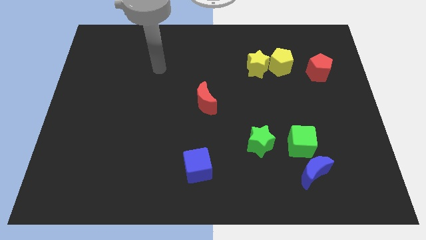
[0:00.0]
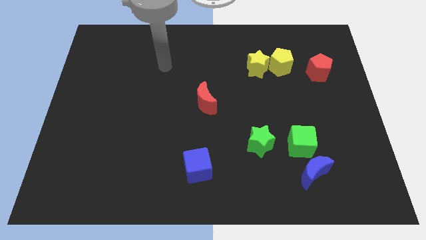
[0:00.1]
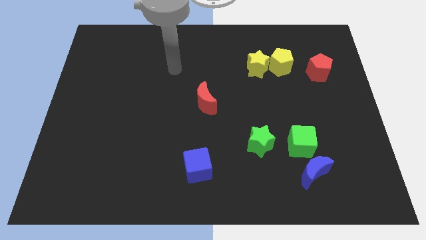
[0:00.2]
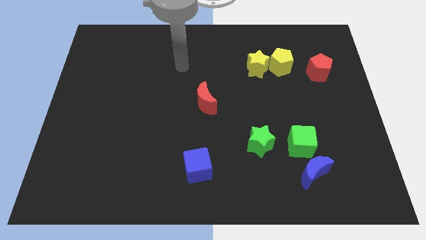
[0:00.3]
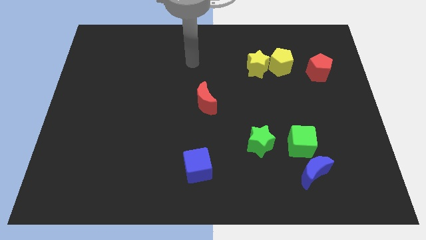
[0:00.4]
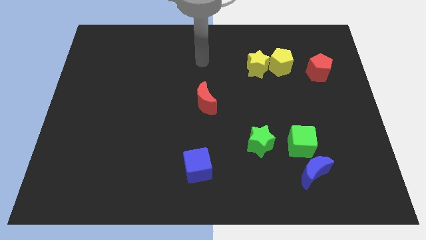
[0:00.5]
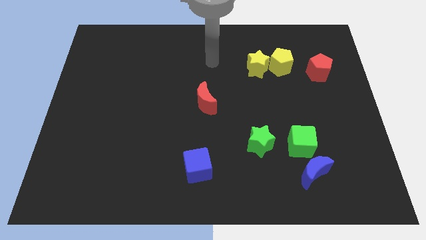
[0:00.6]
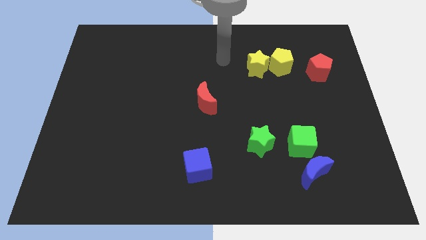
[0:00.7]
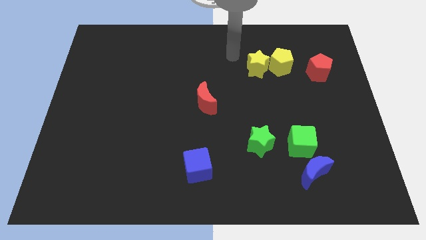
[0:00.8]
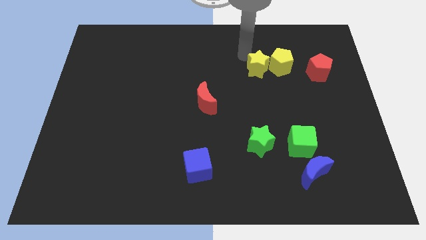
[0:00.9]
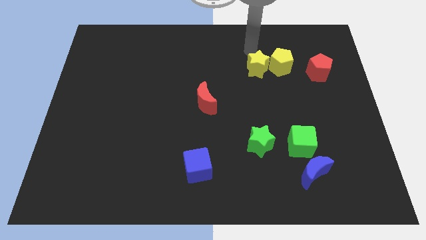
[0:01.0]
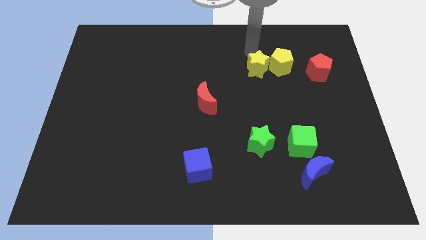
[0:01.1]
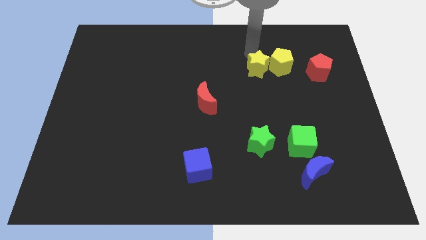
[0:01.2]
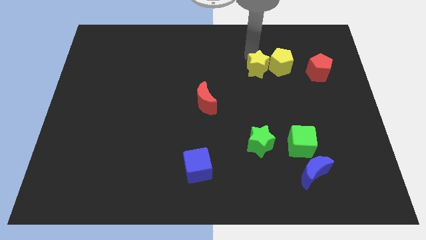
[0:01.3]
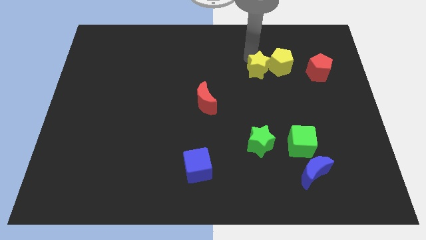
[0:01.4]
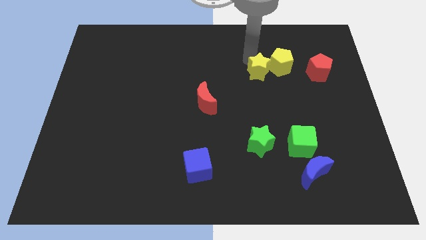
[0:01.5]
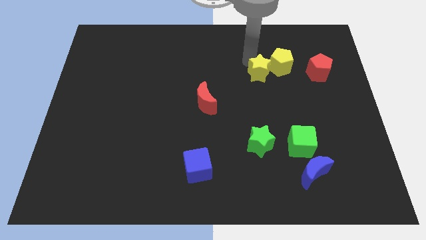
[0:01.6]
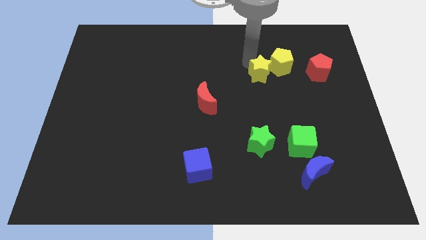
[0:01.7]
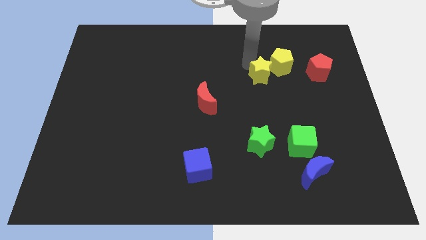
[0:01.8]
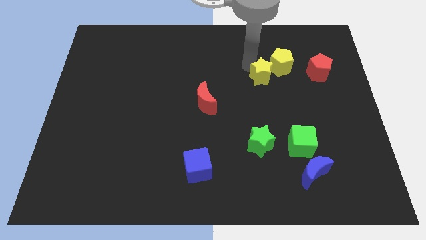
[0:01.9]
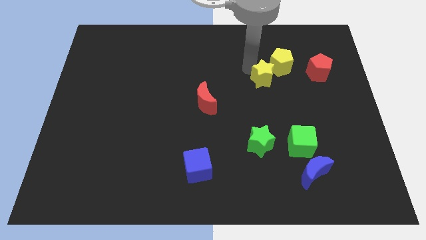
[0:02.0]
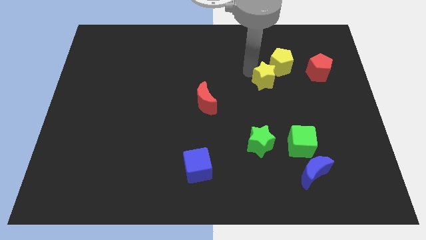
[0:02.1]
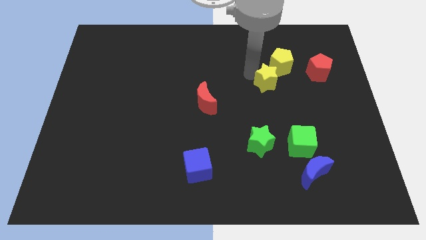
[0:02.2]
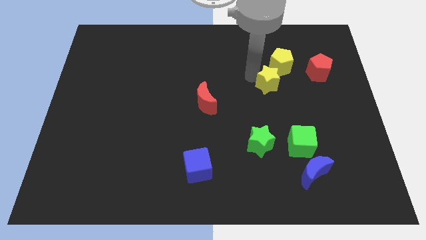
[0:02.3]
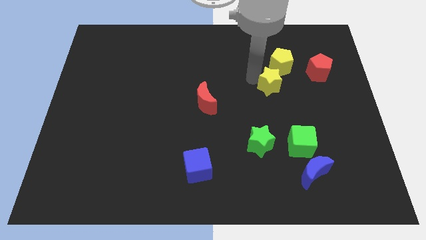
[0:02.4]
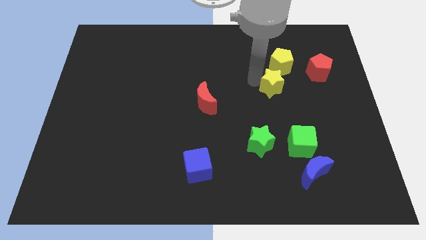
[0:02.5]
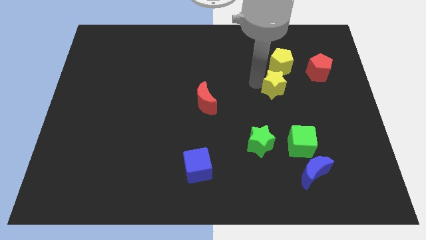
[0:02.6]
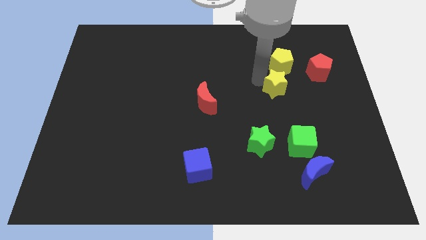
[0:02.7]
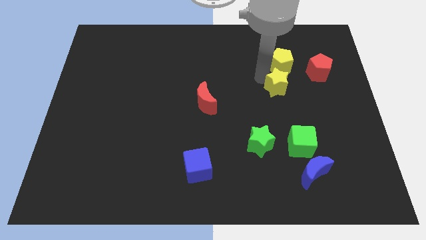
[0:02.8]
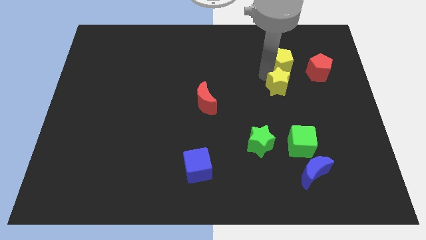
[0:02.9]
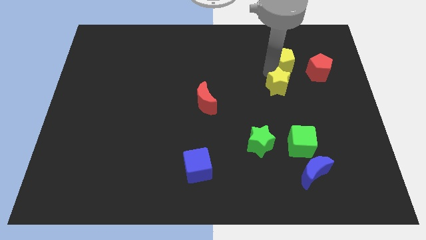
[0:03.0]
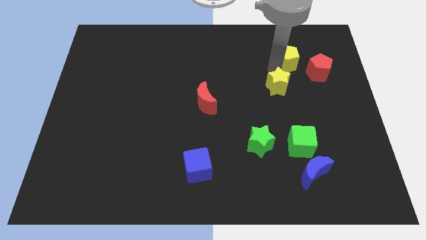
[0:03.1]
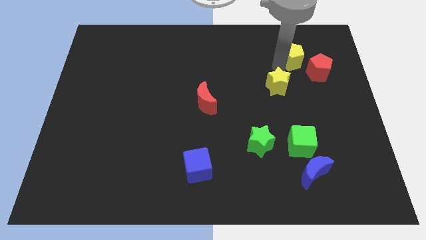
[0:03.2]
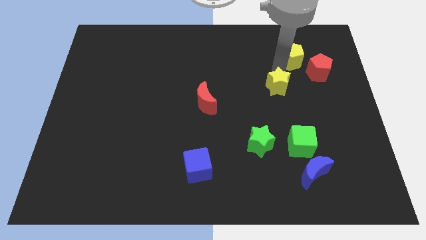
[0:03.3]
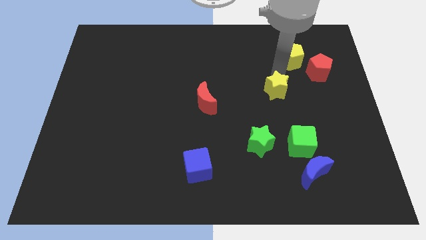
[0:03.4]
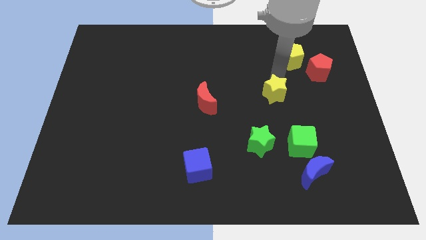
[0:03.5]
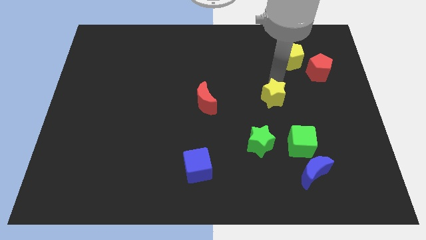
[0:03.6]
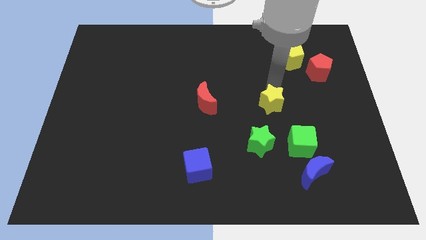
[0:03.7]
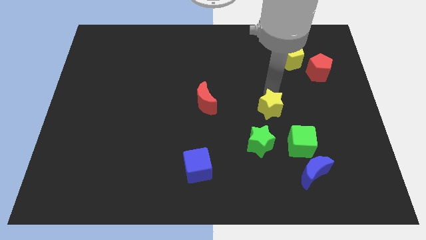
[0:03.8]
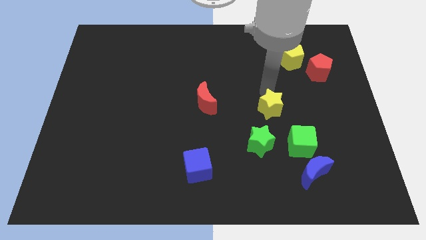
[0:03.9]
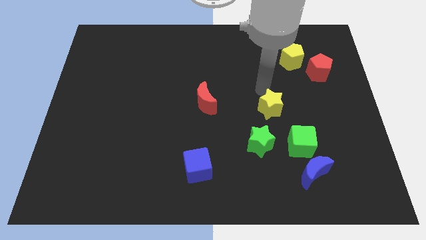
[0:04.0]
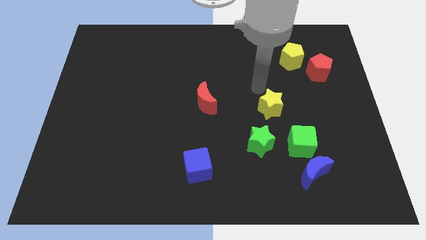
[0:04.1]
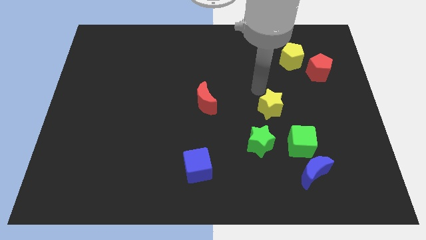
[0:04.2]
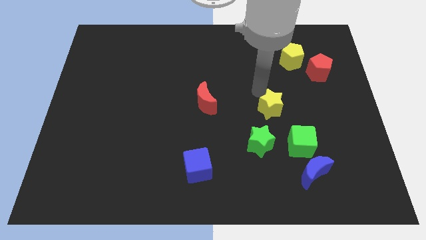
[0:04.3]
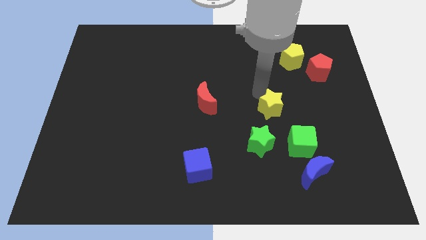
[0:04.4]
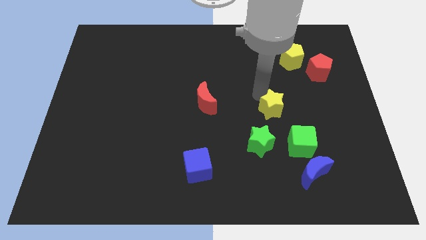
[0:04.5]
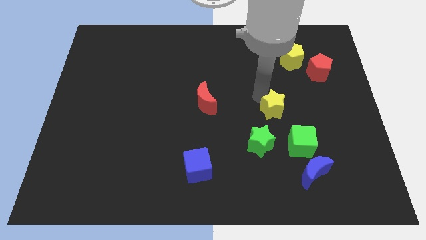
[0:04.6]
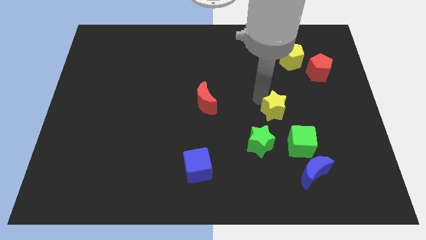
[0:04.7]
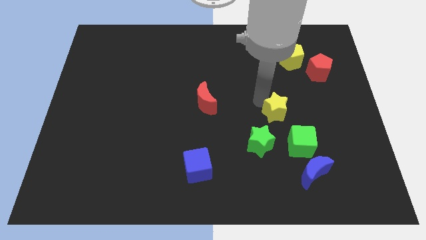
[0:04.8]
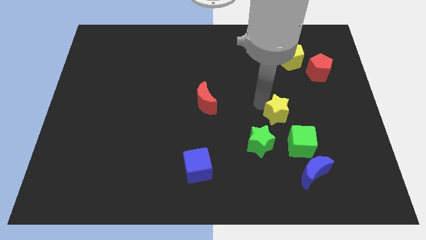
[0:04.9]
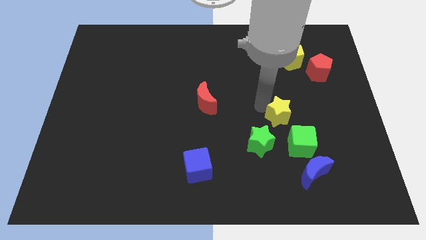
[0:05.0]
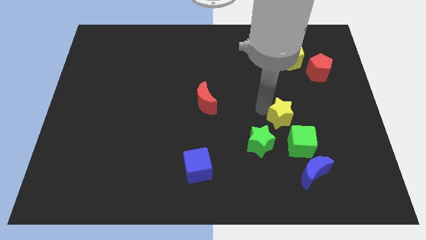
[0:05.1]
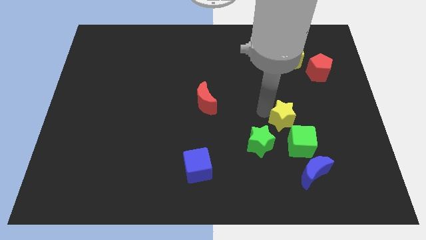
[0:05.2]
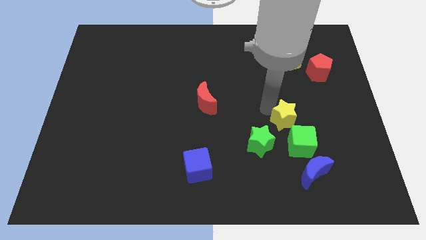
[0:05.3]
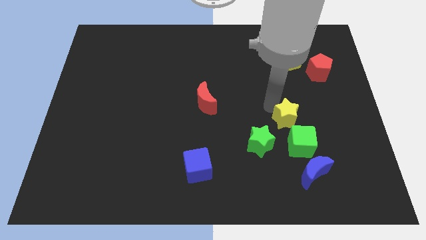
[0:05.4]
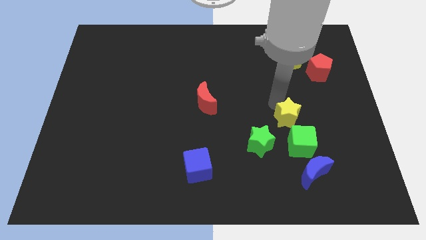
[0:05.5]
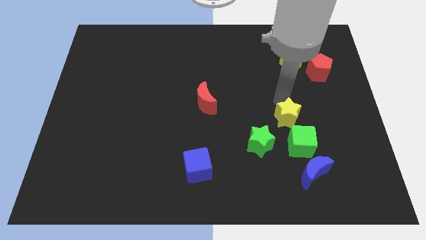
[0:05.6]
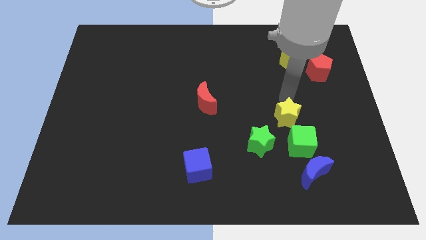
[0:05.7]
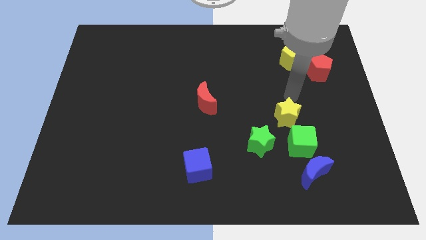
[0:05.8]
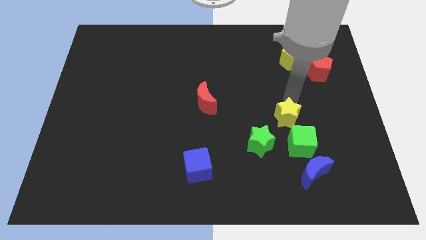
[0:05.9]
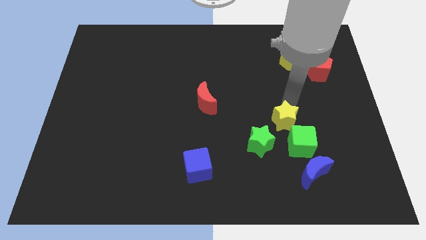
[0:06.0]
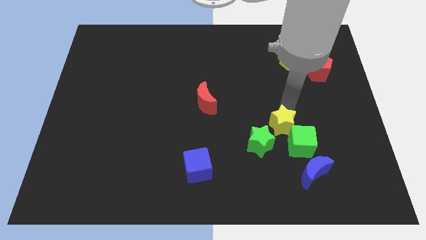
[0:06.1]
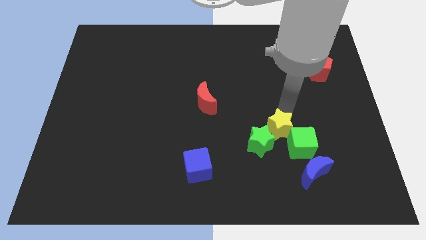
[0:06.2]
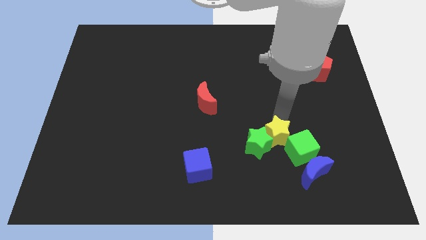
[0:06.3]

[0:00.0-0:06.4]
push the yellow star down

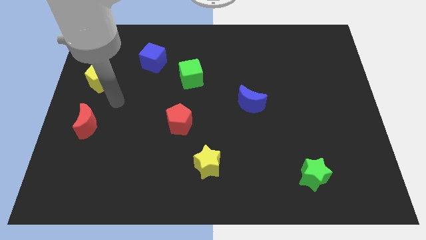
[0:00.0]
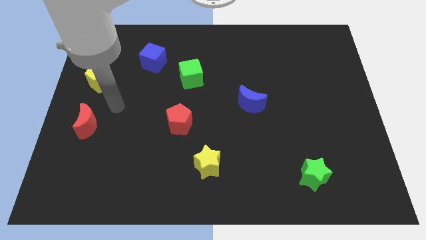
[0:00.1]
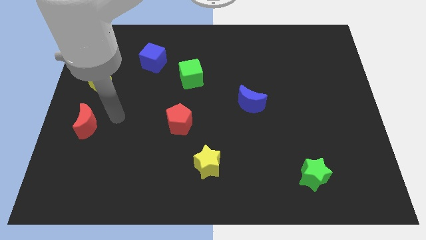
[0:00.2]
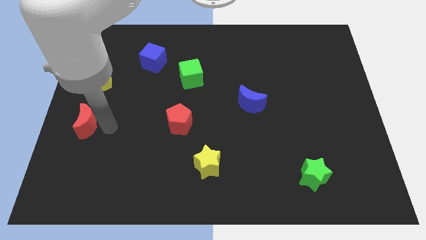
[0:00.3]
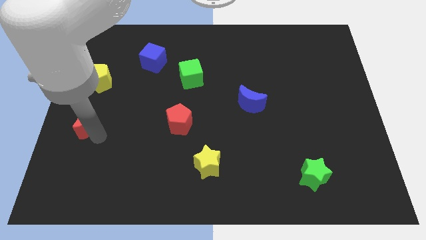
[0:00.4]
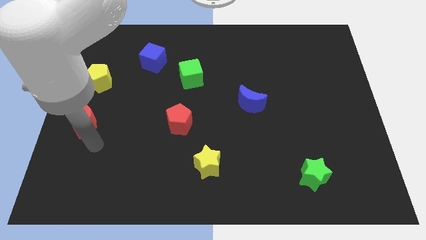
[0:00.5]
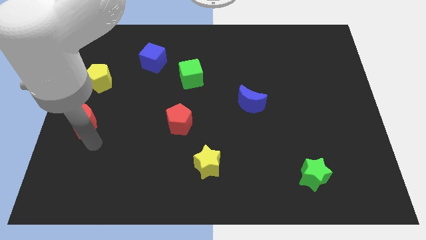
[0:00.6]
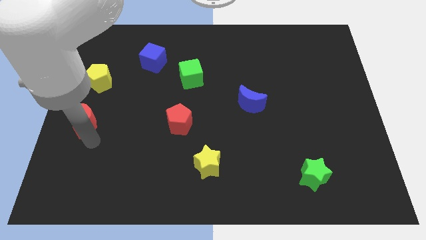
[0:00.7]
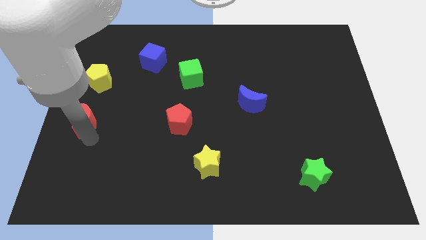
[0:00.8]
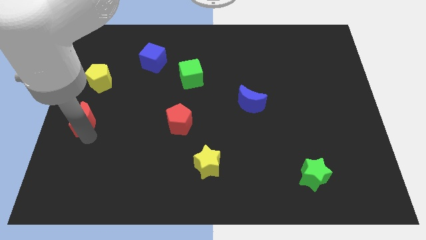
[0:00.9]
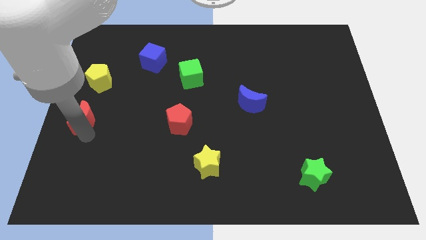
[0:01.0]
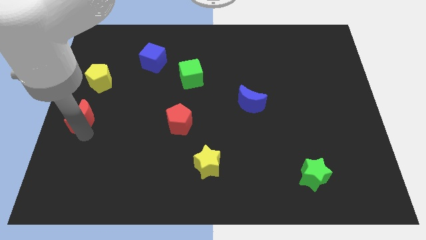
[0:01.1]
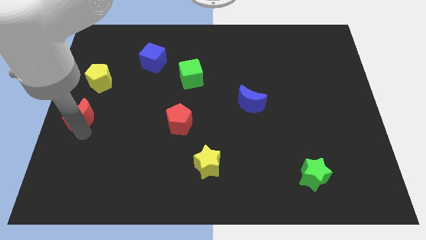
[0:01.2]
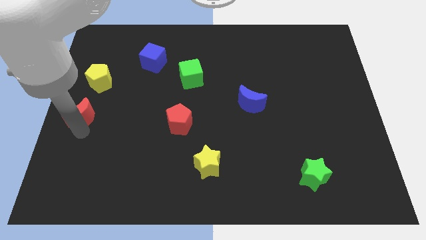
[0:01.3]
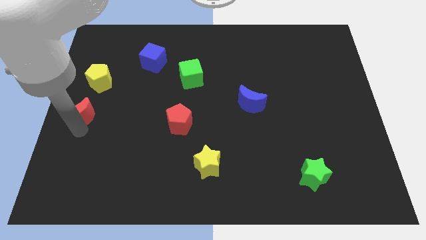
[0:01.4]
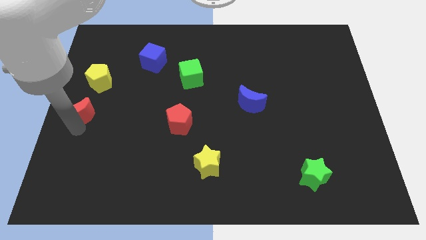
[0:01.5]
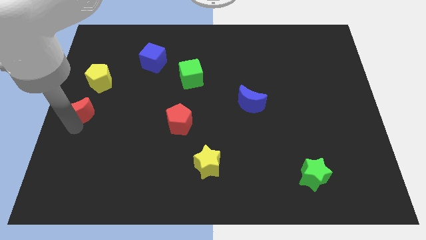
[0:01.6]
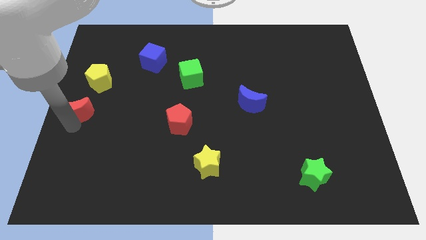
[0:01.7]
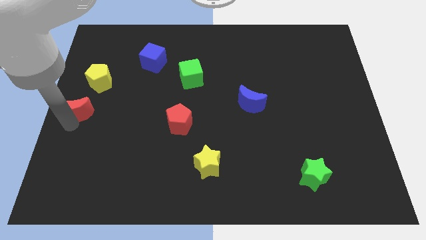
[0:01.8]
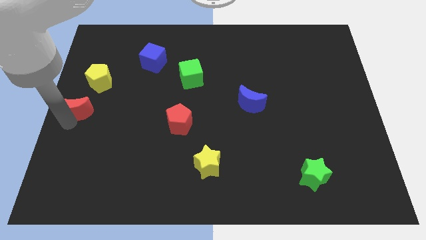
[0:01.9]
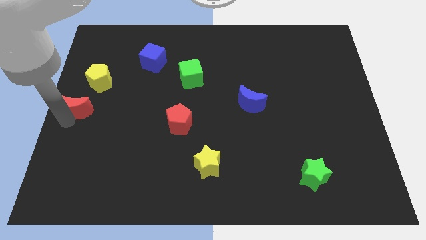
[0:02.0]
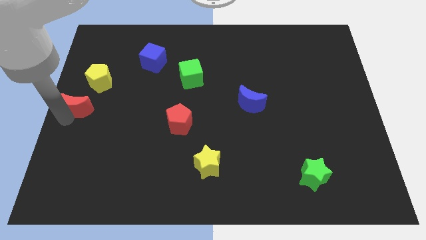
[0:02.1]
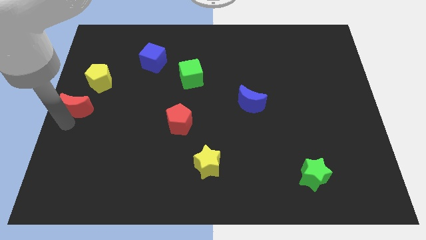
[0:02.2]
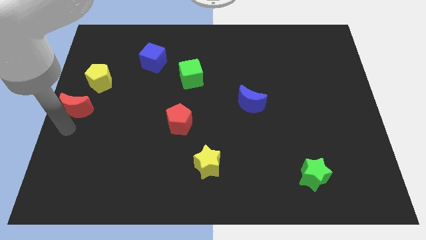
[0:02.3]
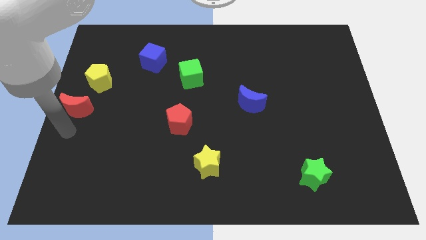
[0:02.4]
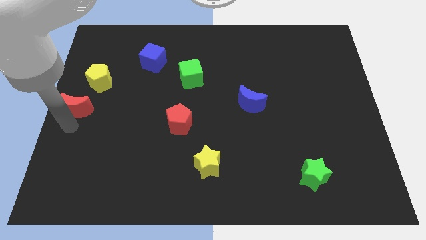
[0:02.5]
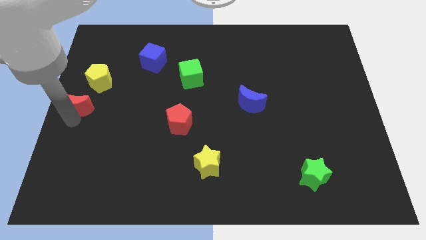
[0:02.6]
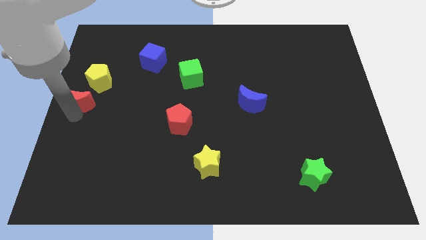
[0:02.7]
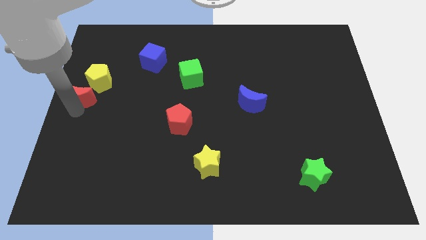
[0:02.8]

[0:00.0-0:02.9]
slightly move the red moon upwards
